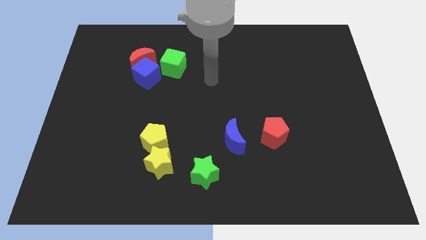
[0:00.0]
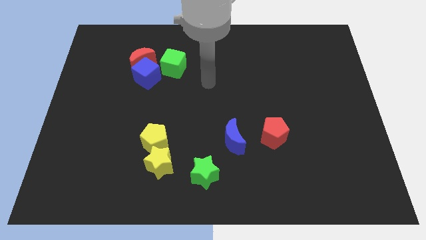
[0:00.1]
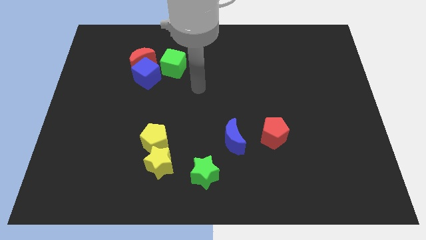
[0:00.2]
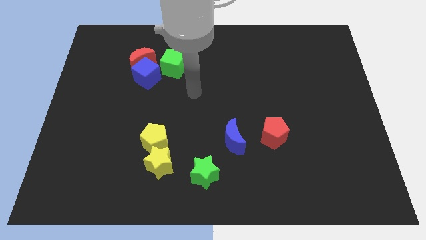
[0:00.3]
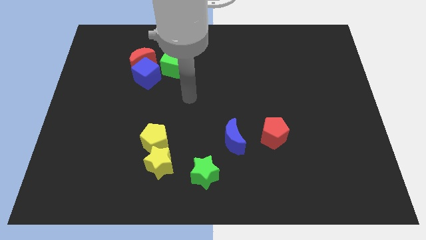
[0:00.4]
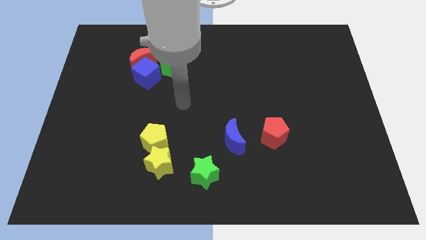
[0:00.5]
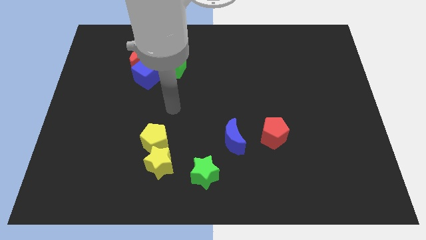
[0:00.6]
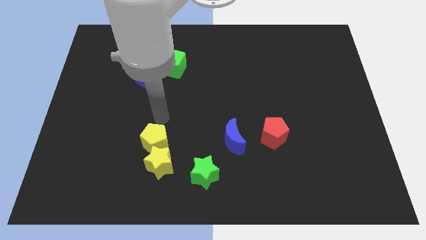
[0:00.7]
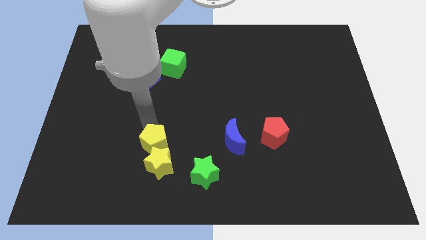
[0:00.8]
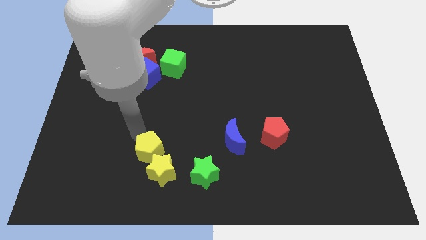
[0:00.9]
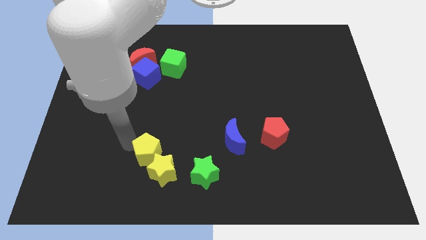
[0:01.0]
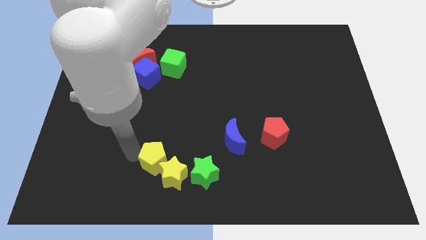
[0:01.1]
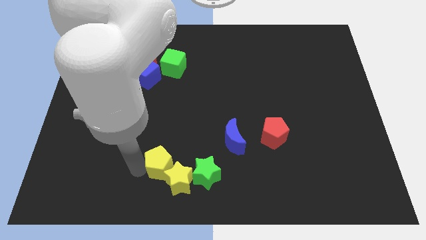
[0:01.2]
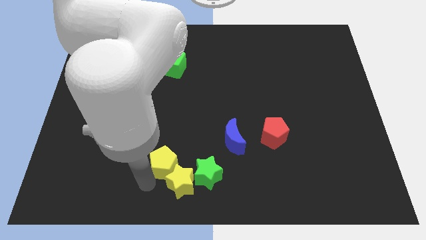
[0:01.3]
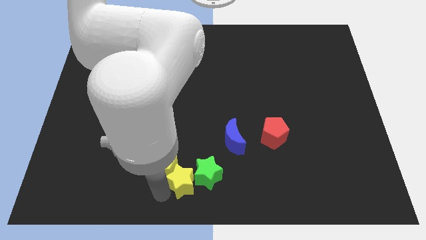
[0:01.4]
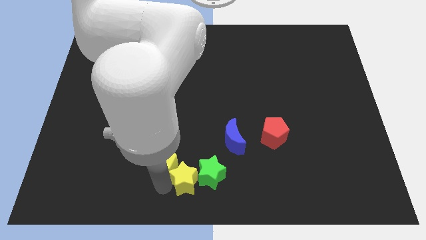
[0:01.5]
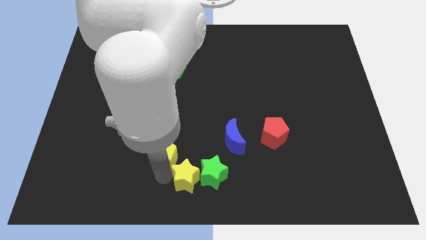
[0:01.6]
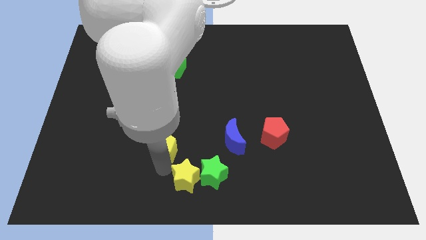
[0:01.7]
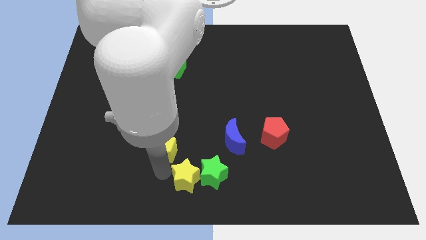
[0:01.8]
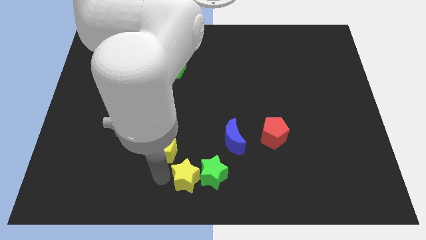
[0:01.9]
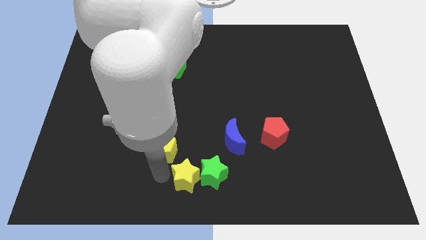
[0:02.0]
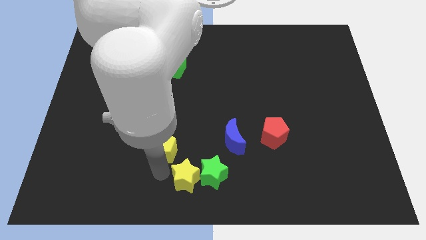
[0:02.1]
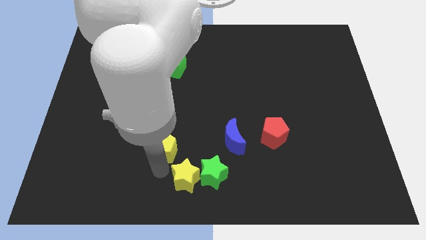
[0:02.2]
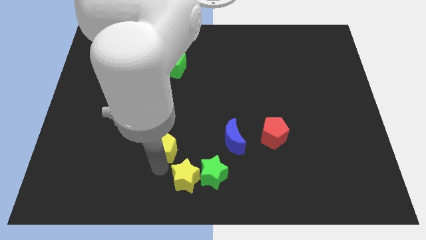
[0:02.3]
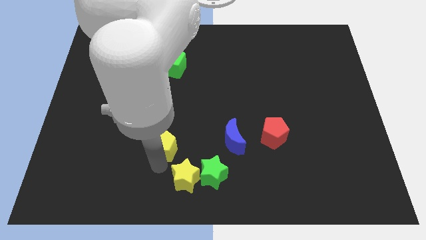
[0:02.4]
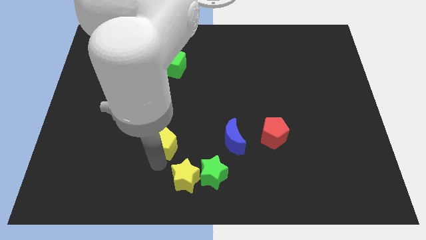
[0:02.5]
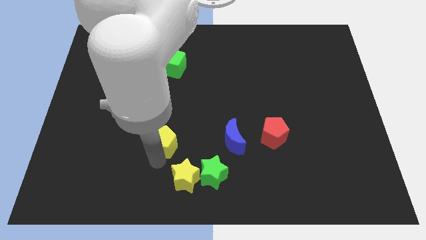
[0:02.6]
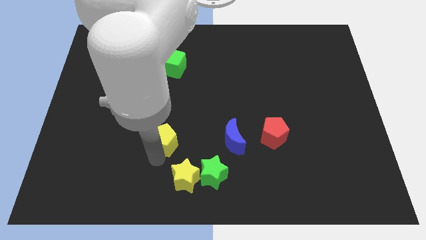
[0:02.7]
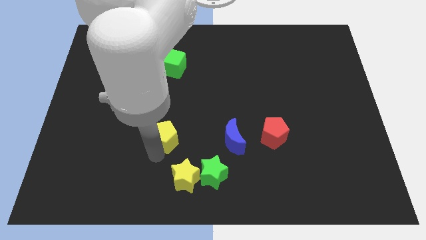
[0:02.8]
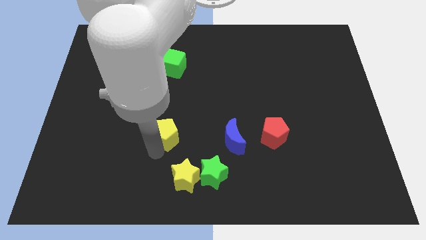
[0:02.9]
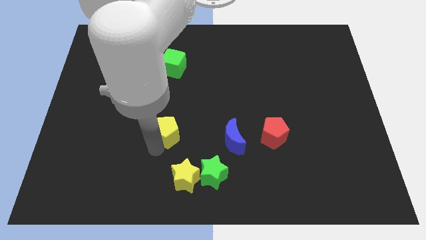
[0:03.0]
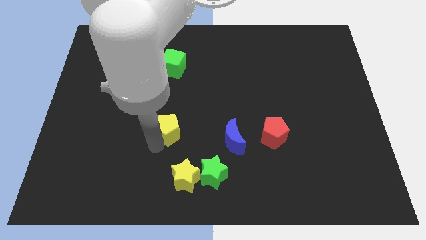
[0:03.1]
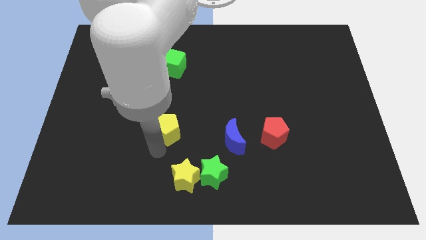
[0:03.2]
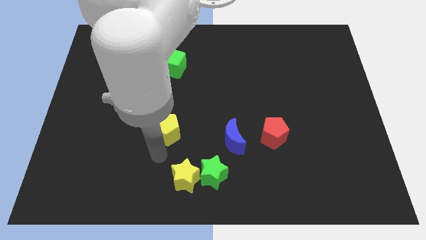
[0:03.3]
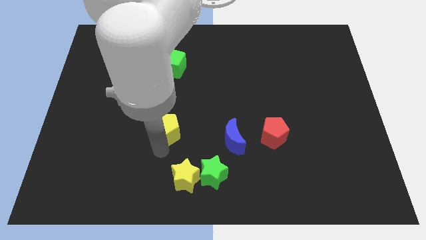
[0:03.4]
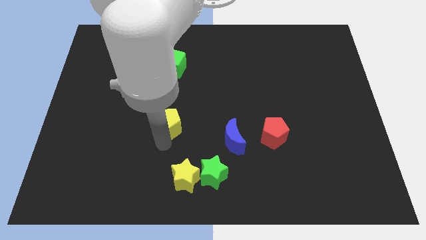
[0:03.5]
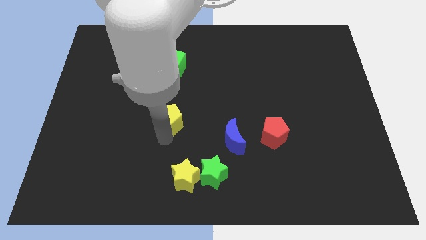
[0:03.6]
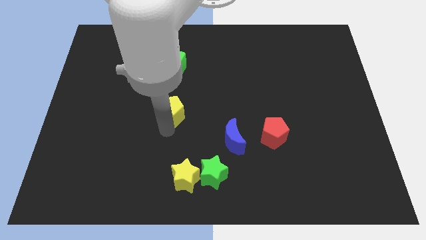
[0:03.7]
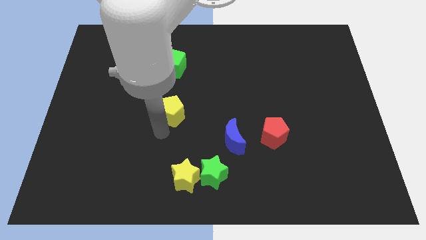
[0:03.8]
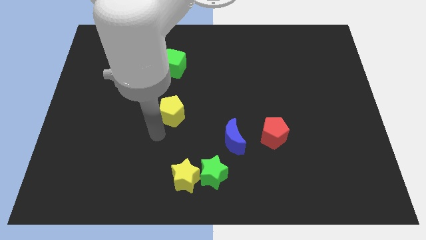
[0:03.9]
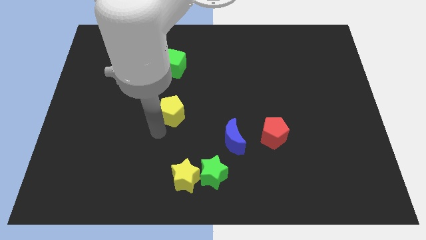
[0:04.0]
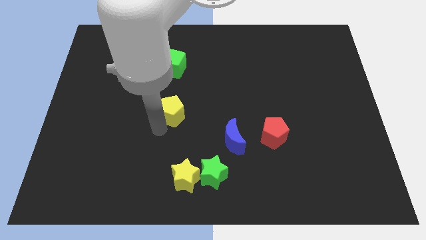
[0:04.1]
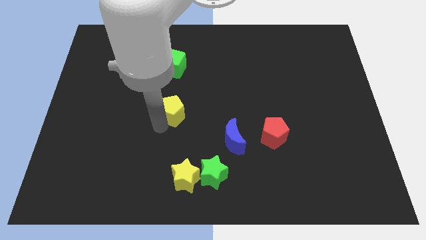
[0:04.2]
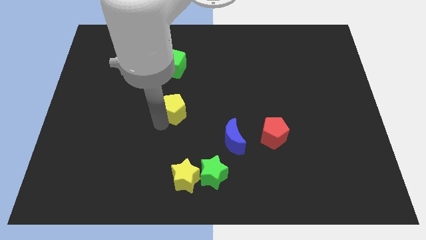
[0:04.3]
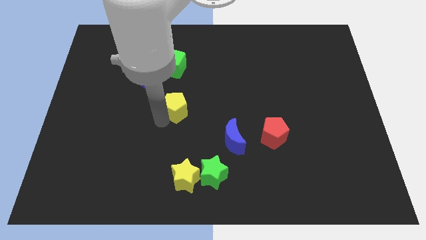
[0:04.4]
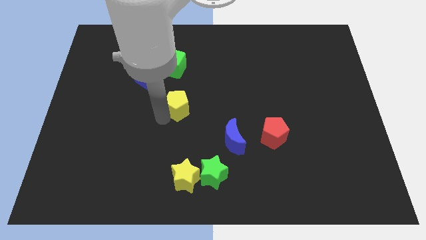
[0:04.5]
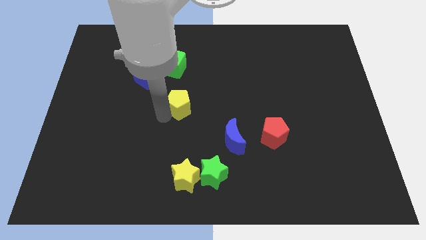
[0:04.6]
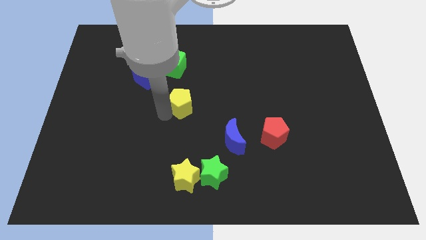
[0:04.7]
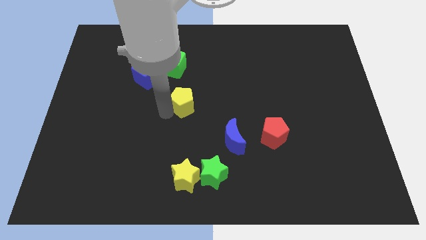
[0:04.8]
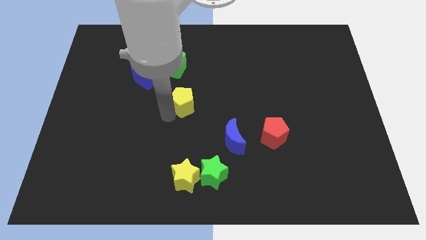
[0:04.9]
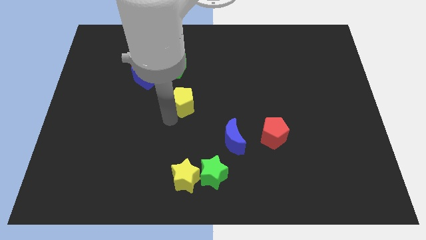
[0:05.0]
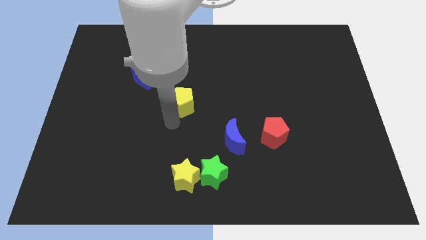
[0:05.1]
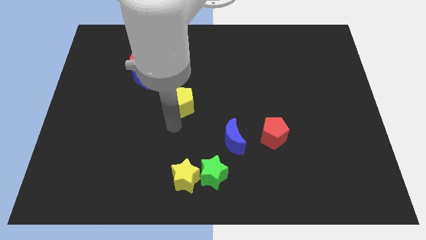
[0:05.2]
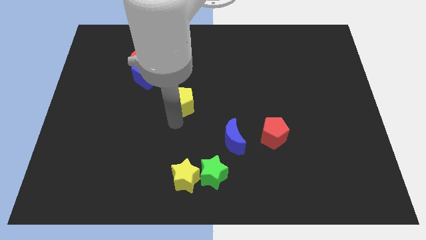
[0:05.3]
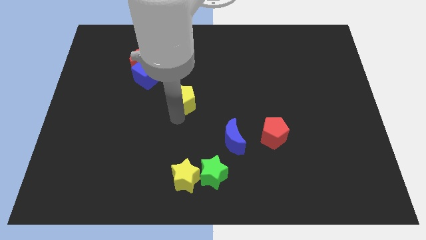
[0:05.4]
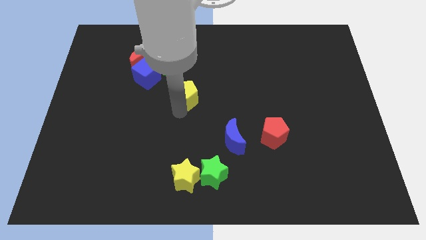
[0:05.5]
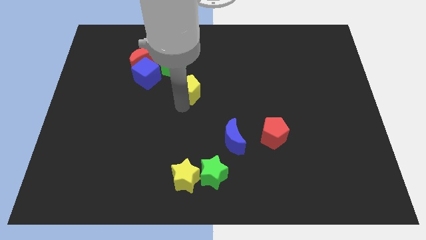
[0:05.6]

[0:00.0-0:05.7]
put the yellow pentagon to the bottom right side of the green cube

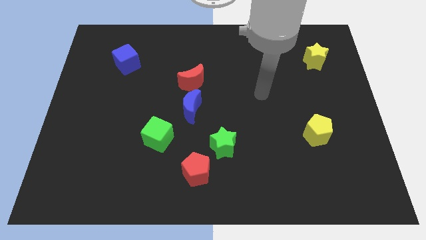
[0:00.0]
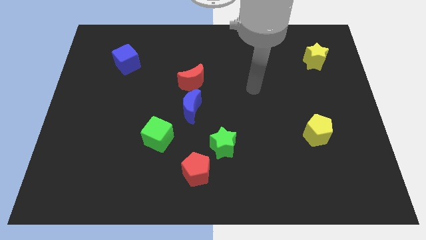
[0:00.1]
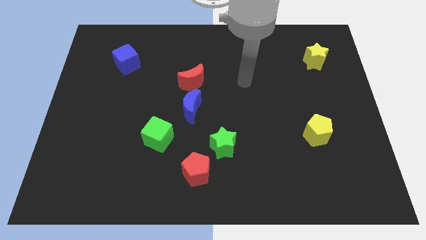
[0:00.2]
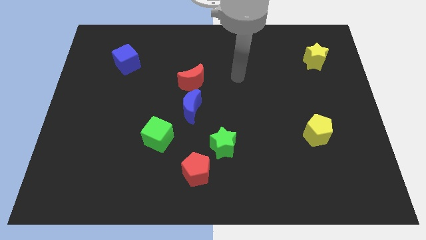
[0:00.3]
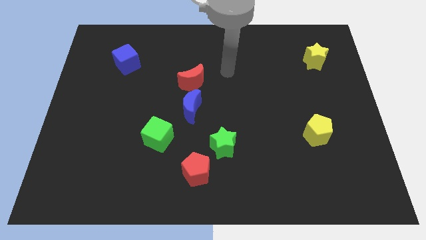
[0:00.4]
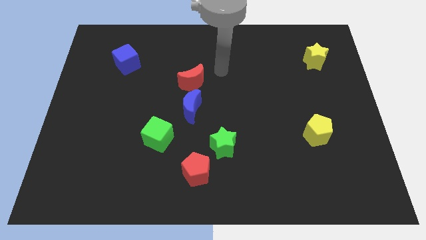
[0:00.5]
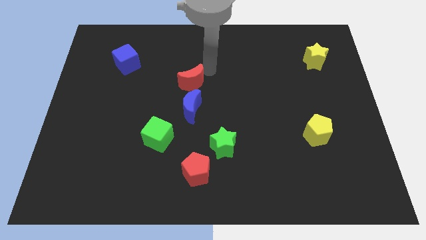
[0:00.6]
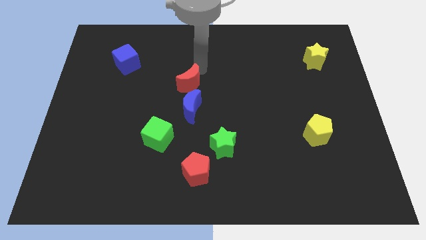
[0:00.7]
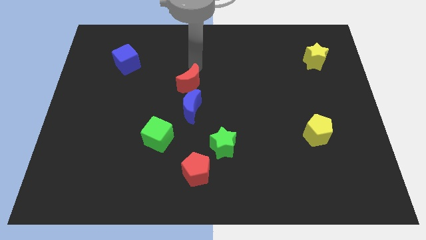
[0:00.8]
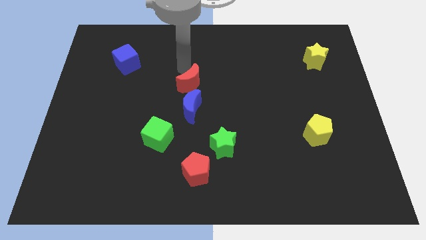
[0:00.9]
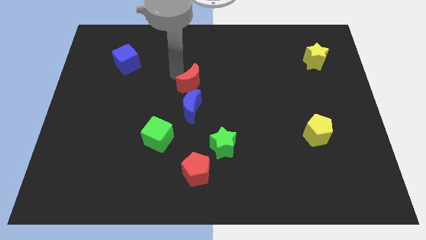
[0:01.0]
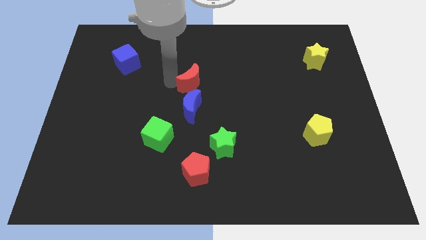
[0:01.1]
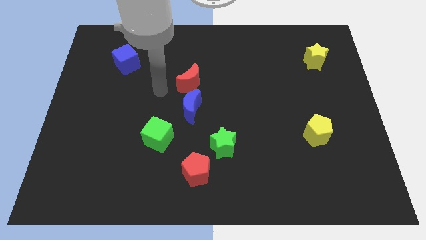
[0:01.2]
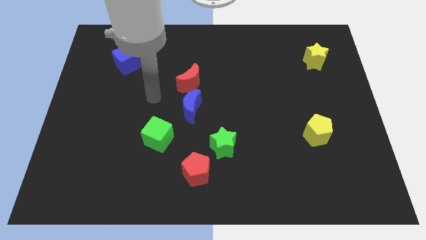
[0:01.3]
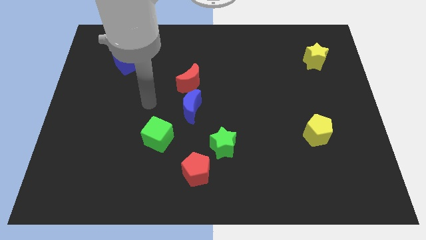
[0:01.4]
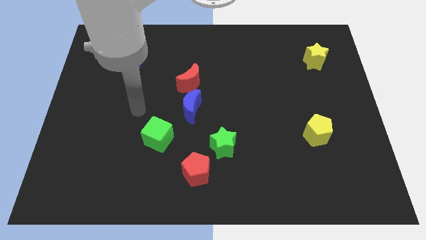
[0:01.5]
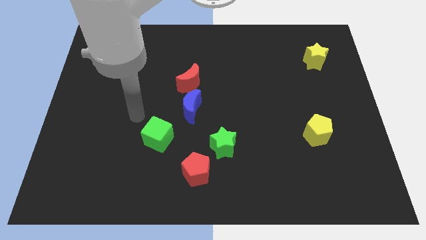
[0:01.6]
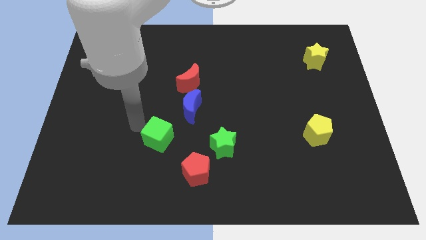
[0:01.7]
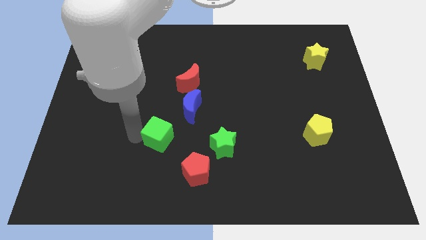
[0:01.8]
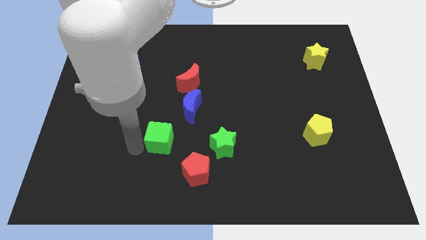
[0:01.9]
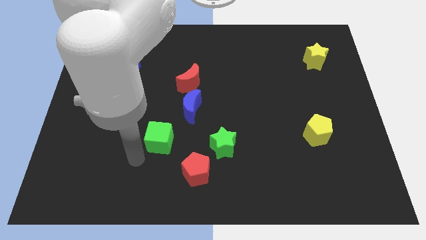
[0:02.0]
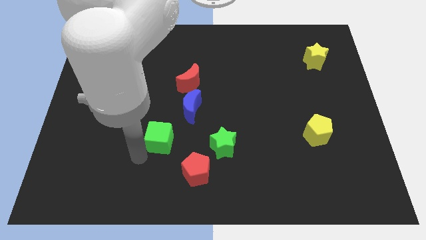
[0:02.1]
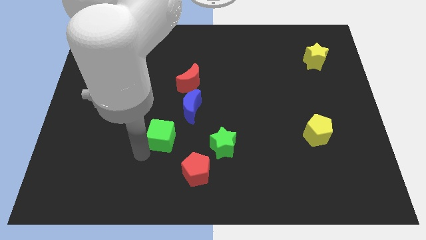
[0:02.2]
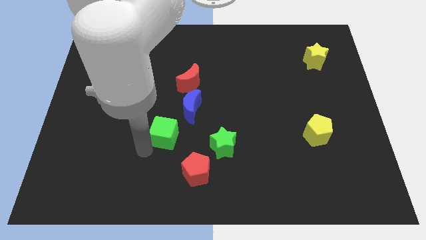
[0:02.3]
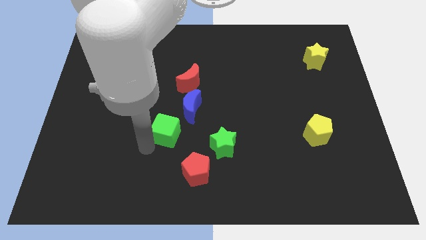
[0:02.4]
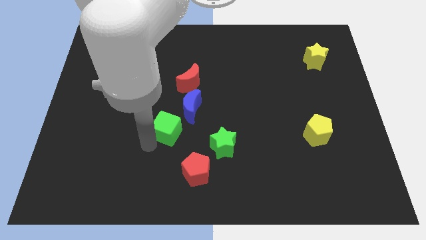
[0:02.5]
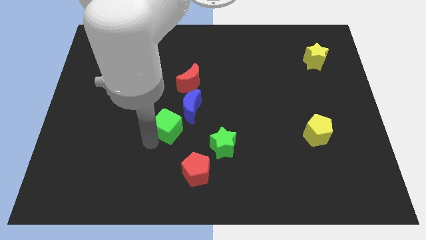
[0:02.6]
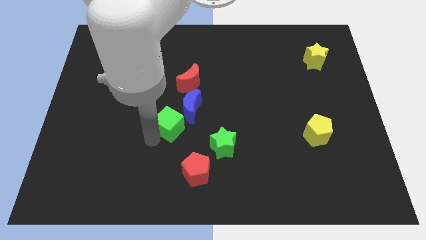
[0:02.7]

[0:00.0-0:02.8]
slide the green cube below the red moon
